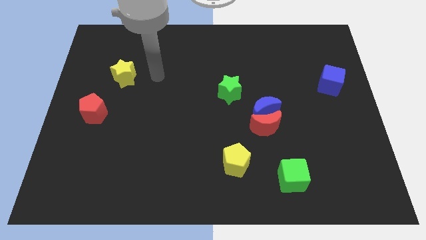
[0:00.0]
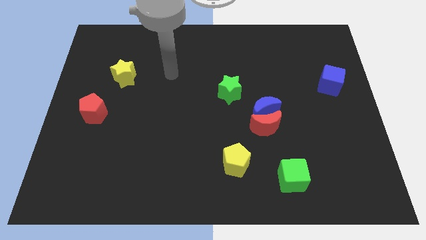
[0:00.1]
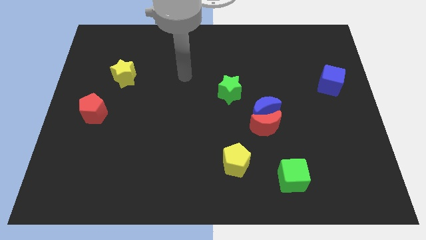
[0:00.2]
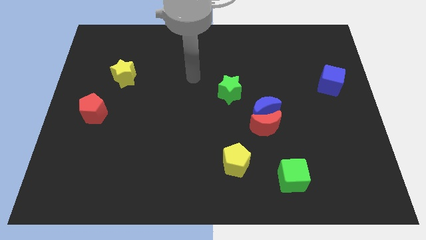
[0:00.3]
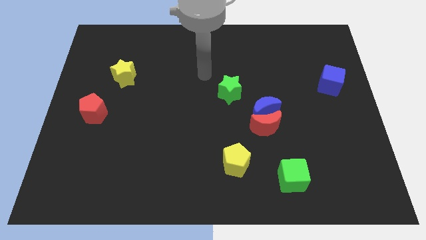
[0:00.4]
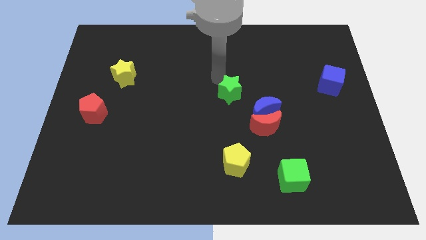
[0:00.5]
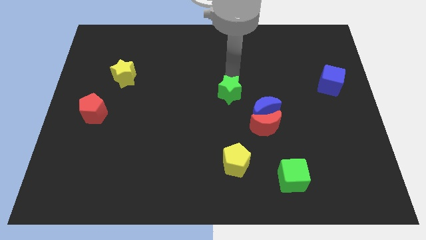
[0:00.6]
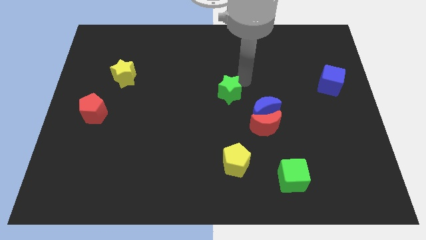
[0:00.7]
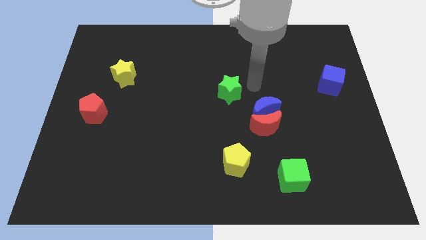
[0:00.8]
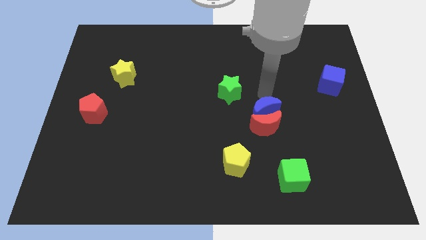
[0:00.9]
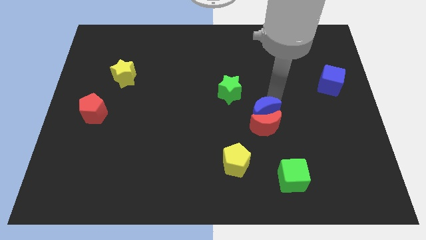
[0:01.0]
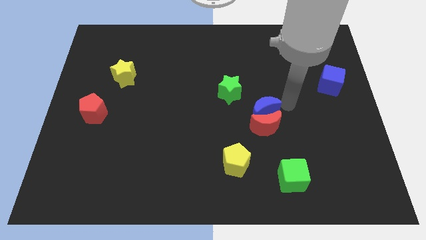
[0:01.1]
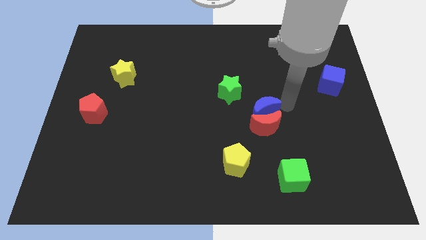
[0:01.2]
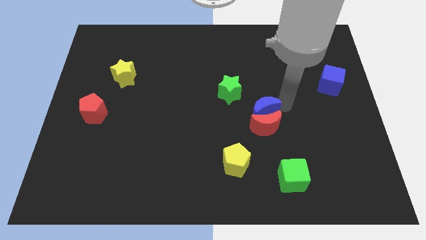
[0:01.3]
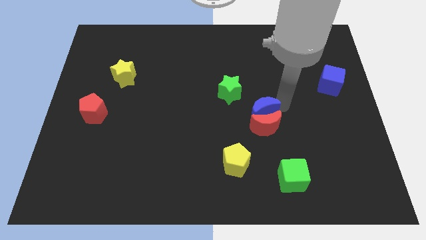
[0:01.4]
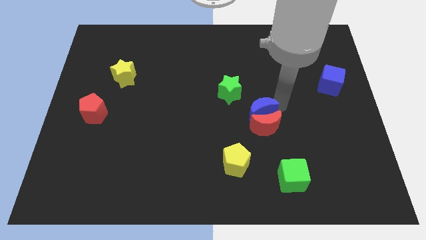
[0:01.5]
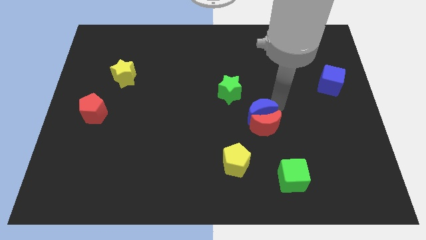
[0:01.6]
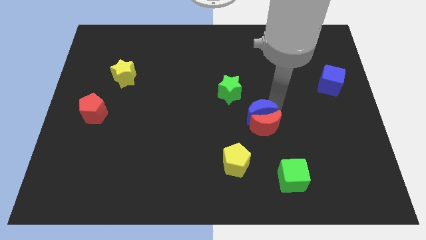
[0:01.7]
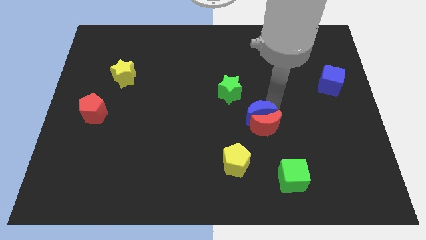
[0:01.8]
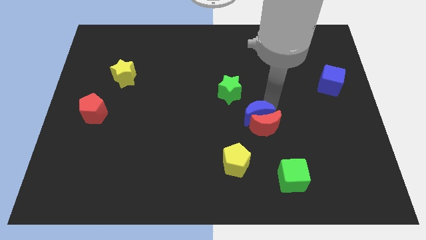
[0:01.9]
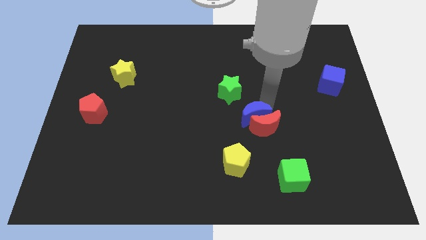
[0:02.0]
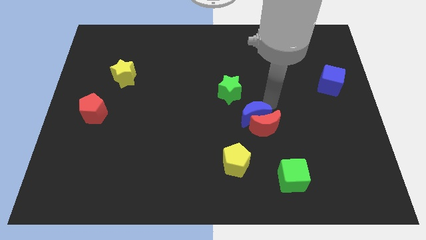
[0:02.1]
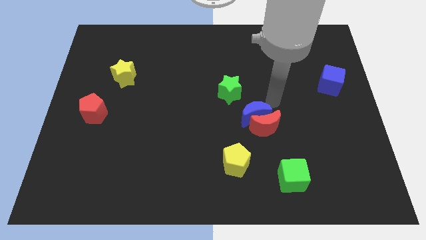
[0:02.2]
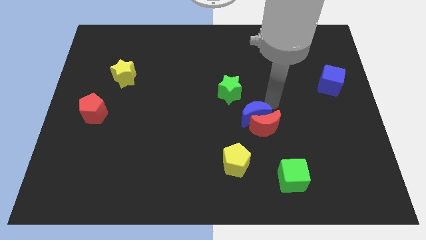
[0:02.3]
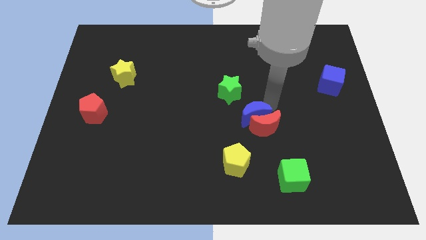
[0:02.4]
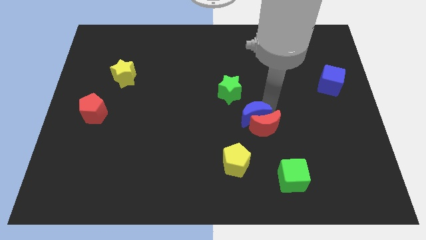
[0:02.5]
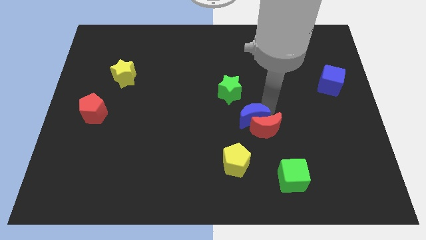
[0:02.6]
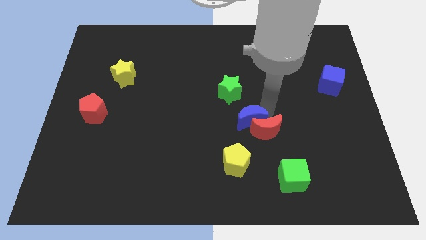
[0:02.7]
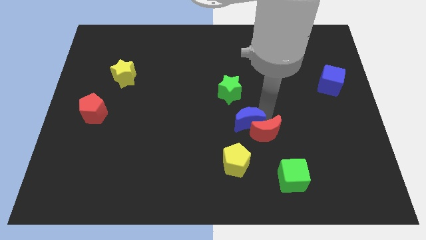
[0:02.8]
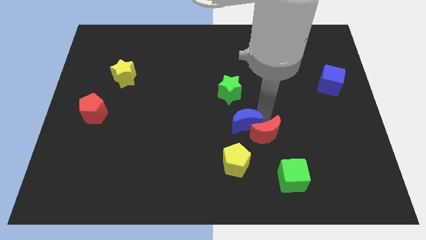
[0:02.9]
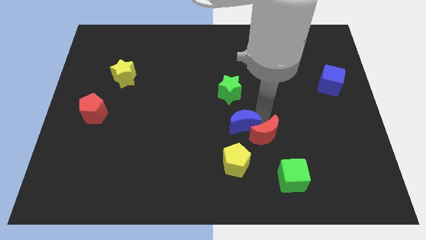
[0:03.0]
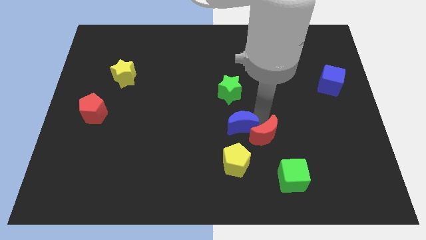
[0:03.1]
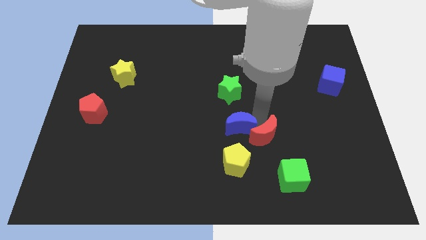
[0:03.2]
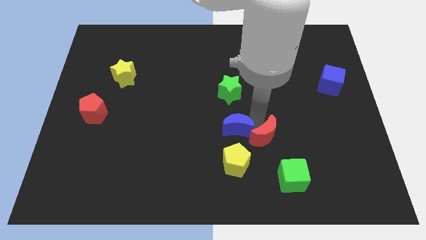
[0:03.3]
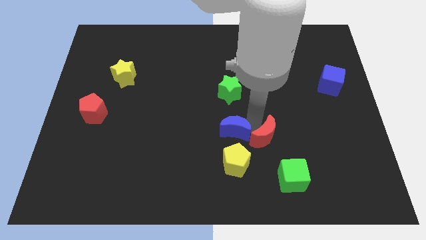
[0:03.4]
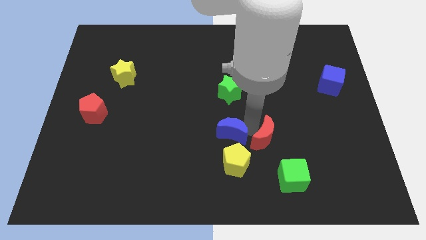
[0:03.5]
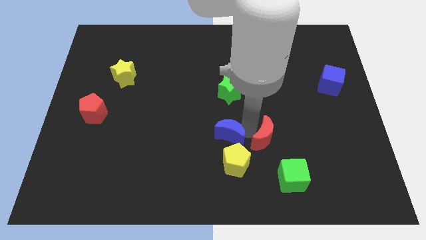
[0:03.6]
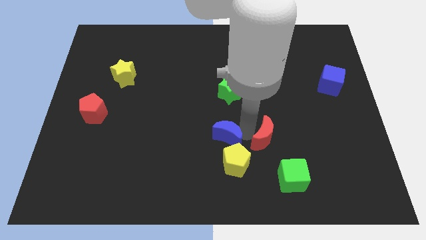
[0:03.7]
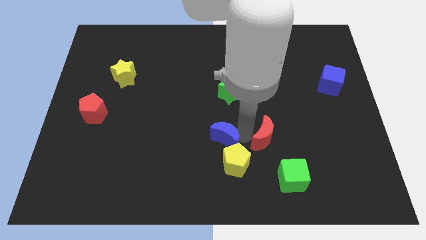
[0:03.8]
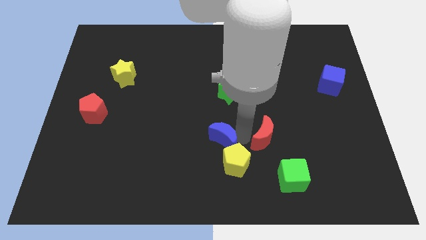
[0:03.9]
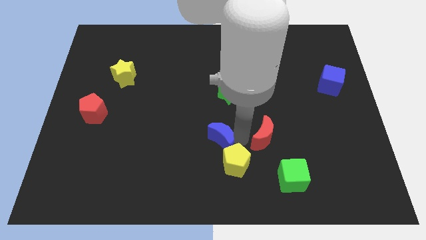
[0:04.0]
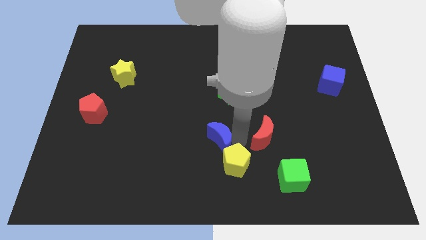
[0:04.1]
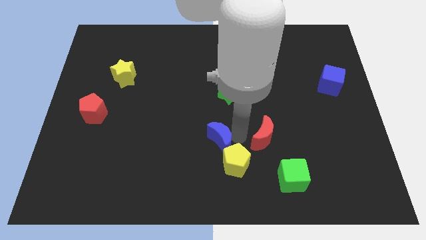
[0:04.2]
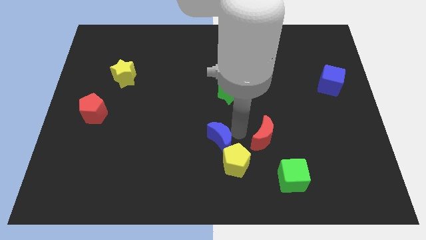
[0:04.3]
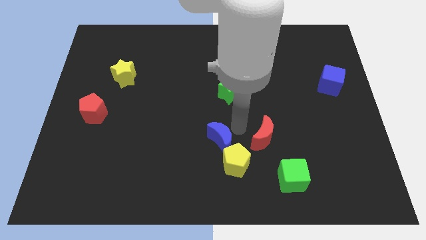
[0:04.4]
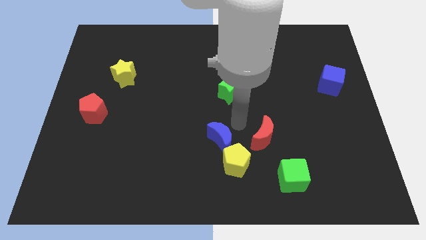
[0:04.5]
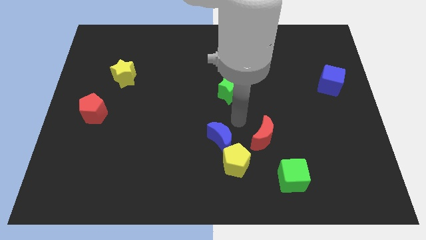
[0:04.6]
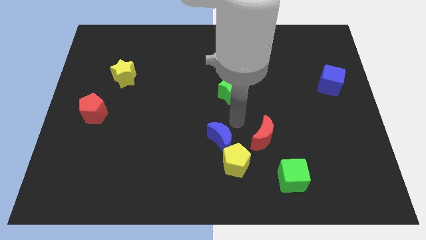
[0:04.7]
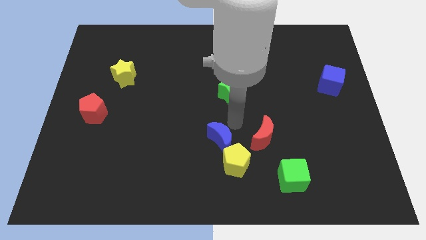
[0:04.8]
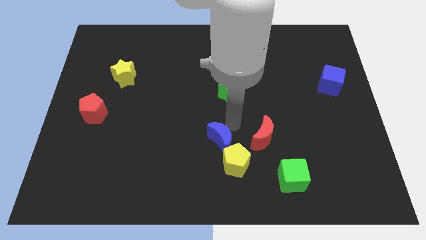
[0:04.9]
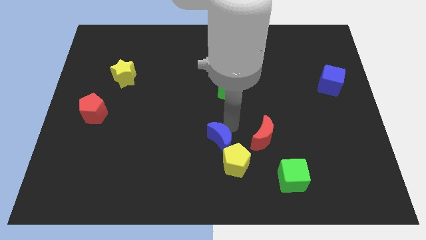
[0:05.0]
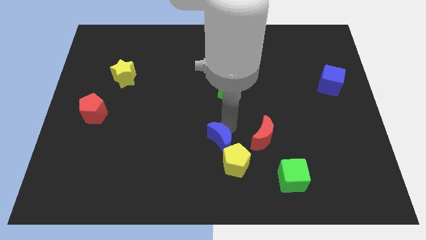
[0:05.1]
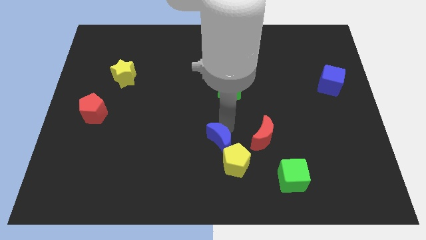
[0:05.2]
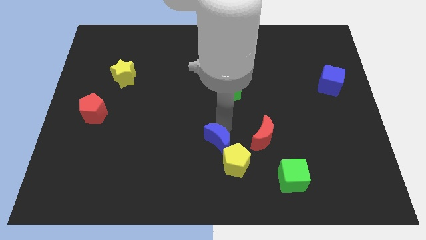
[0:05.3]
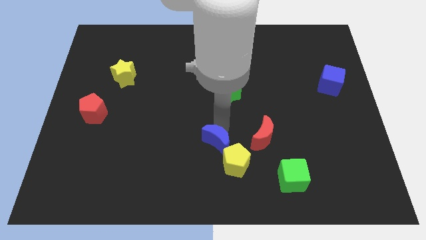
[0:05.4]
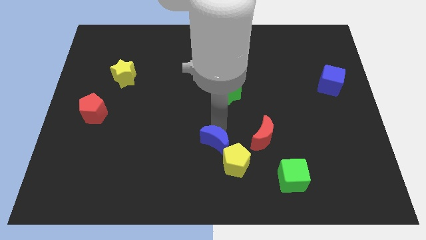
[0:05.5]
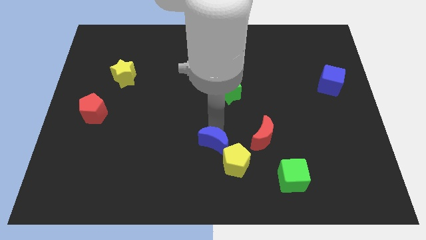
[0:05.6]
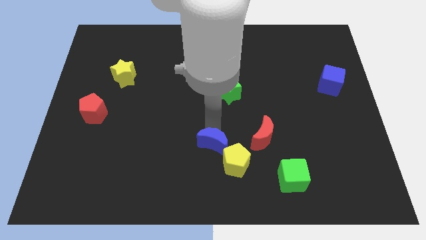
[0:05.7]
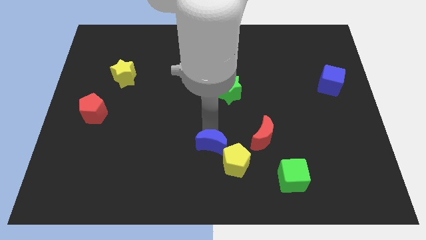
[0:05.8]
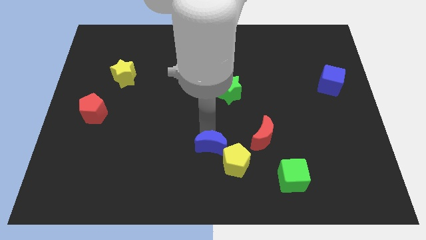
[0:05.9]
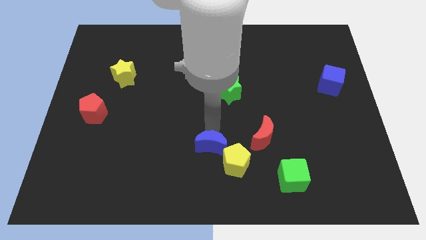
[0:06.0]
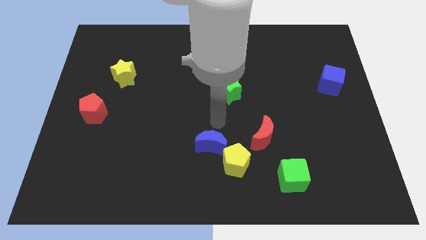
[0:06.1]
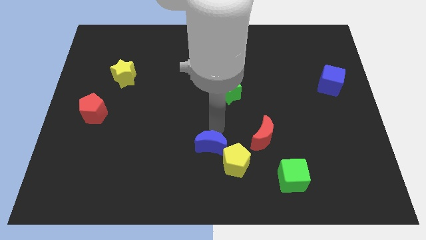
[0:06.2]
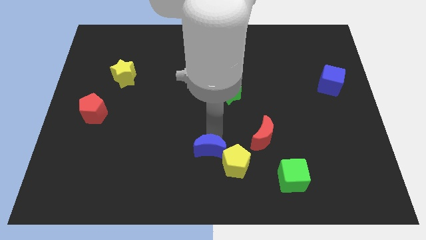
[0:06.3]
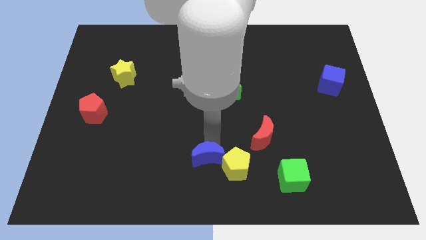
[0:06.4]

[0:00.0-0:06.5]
push the blue moon to the bottom
